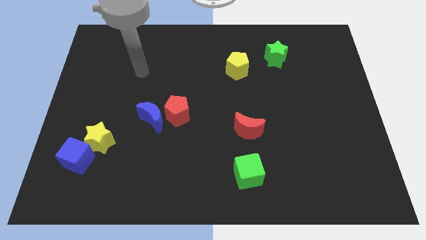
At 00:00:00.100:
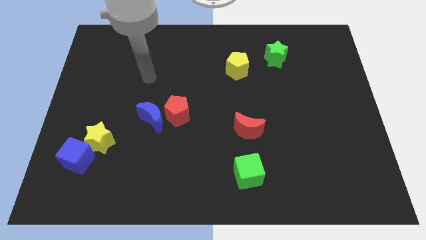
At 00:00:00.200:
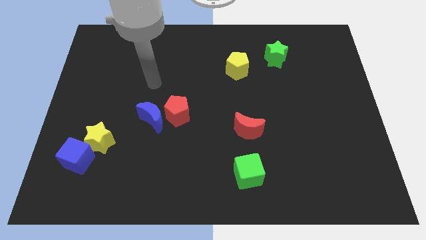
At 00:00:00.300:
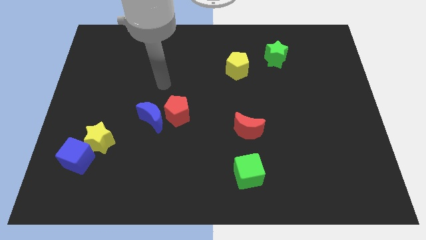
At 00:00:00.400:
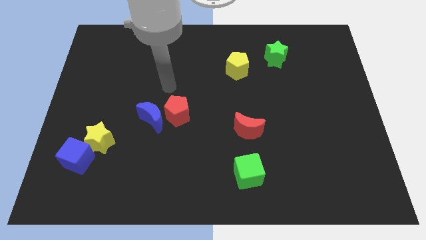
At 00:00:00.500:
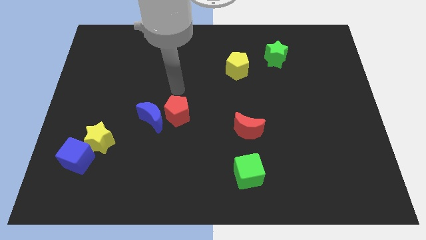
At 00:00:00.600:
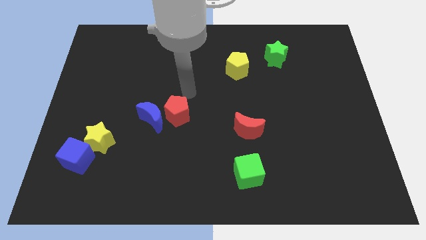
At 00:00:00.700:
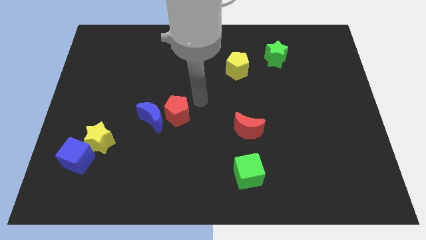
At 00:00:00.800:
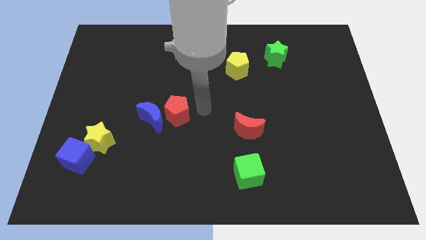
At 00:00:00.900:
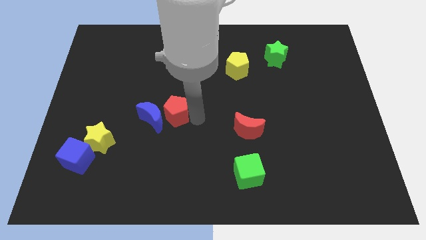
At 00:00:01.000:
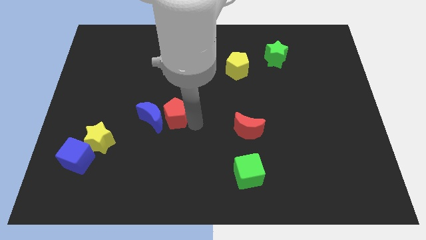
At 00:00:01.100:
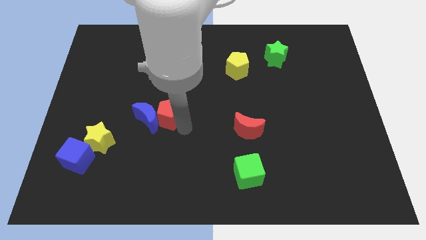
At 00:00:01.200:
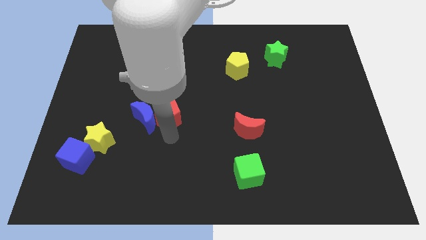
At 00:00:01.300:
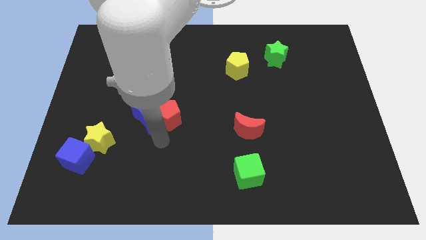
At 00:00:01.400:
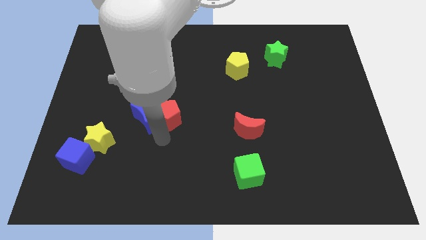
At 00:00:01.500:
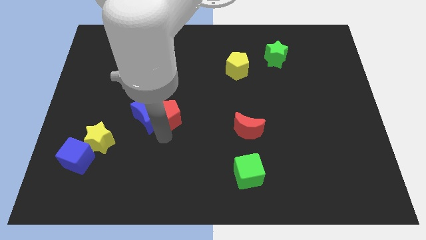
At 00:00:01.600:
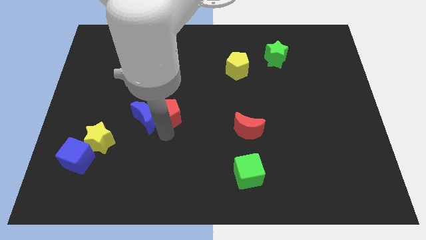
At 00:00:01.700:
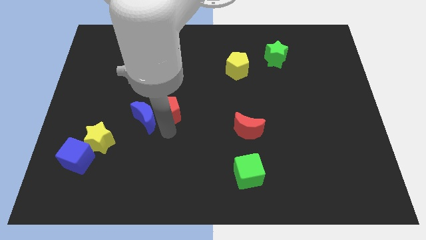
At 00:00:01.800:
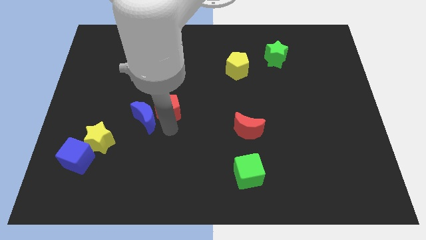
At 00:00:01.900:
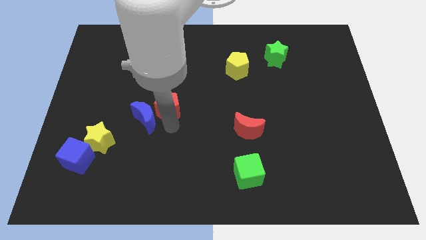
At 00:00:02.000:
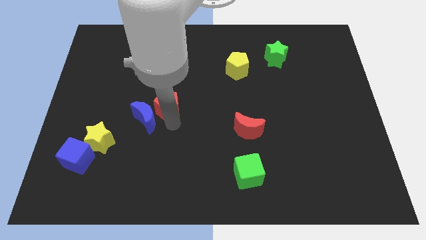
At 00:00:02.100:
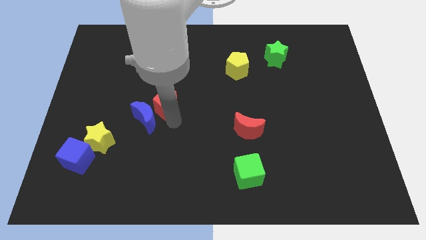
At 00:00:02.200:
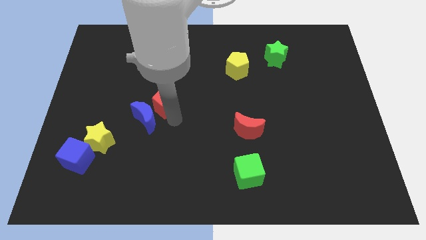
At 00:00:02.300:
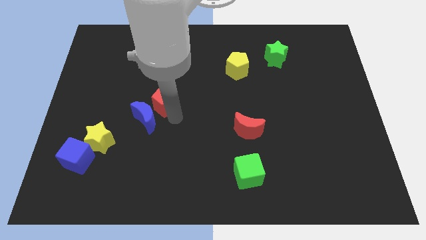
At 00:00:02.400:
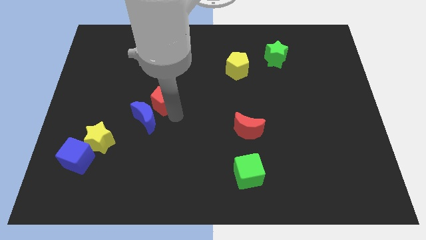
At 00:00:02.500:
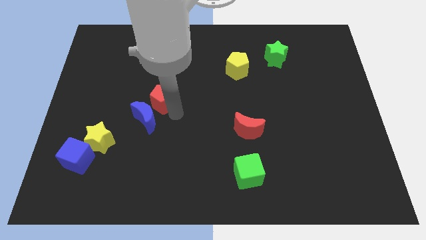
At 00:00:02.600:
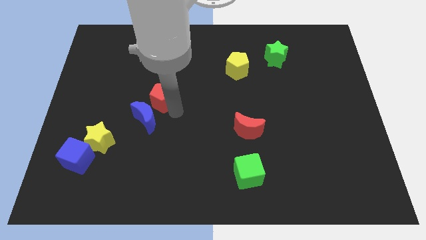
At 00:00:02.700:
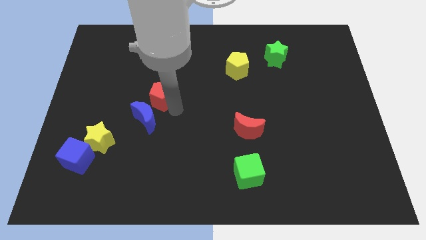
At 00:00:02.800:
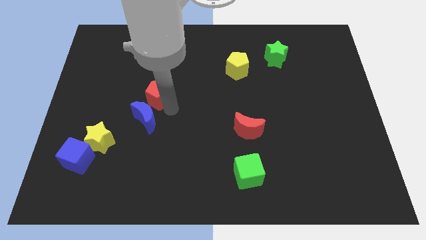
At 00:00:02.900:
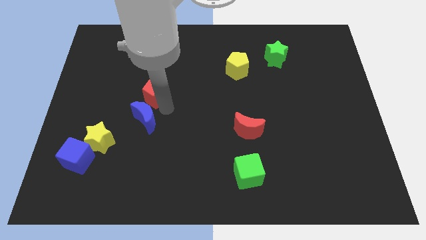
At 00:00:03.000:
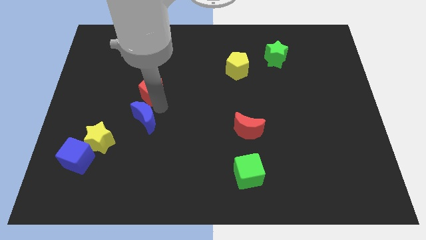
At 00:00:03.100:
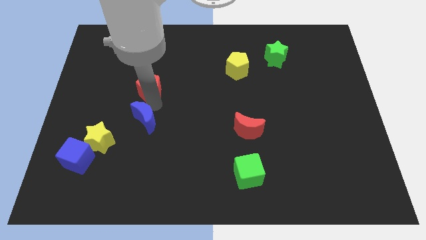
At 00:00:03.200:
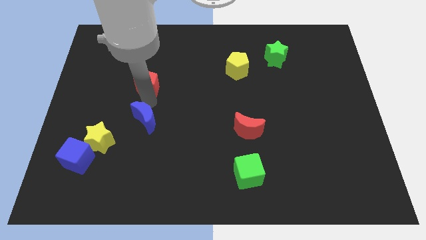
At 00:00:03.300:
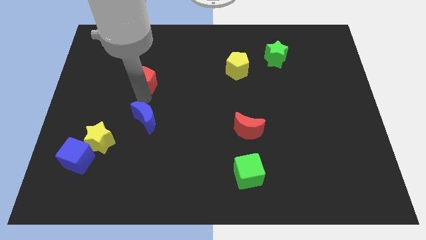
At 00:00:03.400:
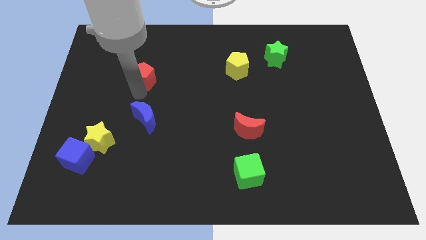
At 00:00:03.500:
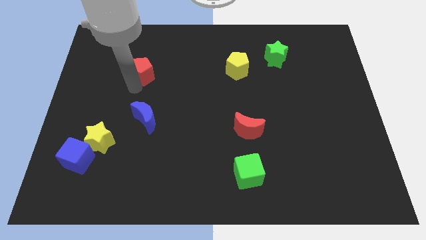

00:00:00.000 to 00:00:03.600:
move the red pentagon a little upwards

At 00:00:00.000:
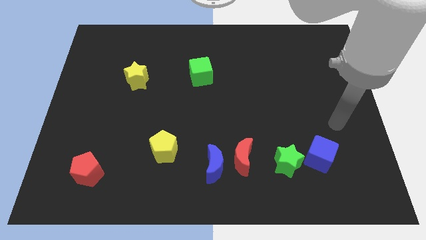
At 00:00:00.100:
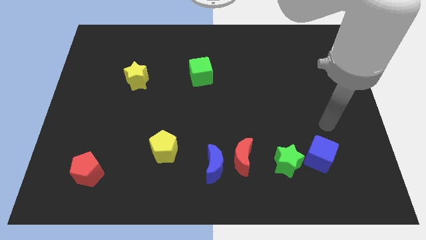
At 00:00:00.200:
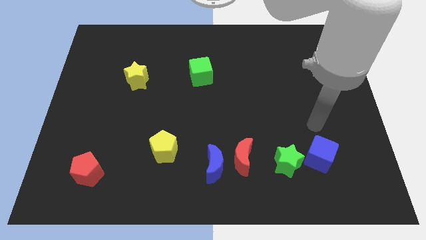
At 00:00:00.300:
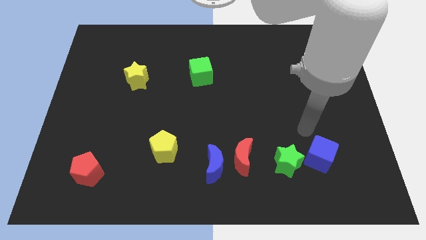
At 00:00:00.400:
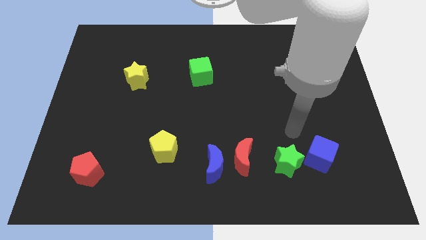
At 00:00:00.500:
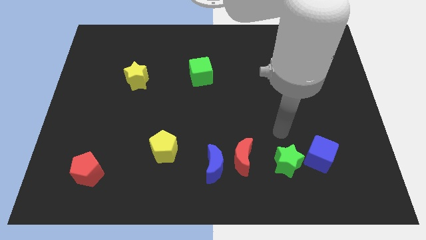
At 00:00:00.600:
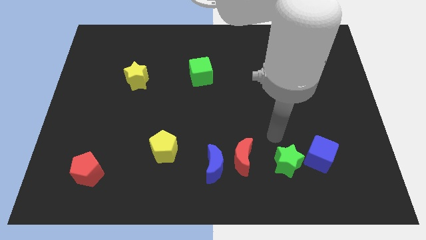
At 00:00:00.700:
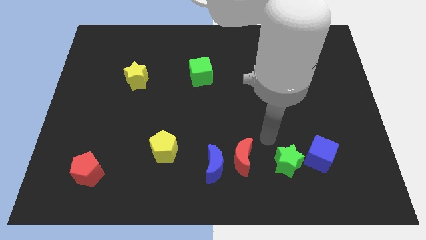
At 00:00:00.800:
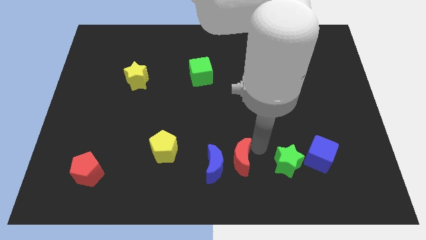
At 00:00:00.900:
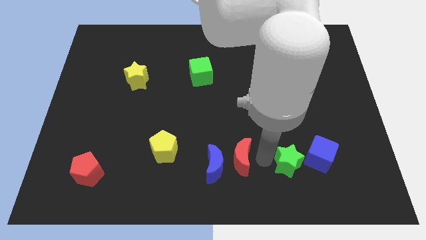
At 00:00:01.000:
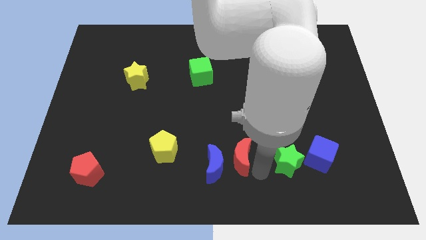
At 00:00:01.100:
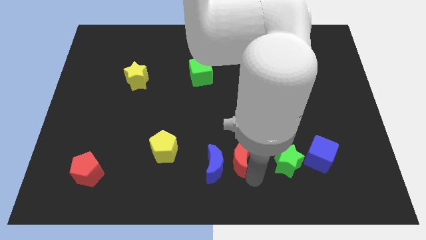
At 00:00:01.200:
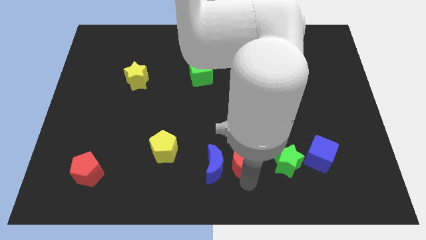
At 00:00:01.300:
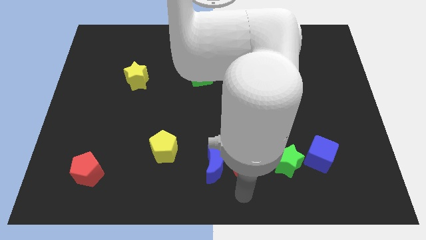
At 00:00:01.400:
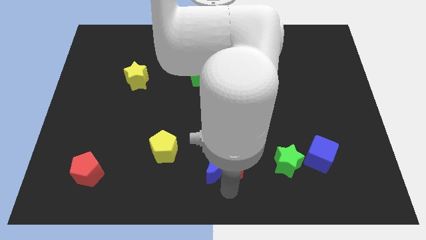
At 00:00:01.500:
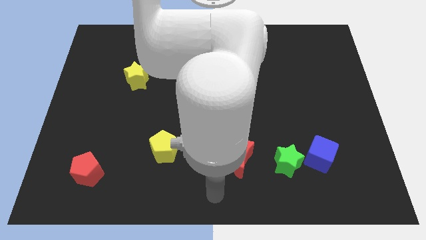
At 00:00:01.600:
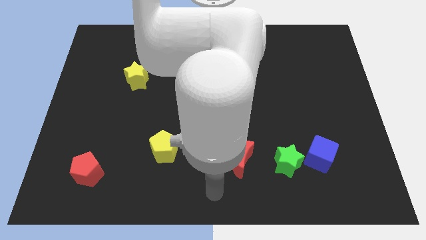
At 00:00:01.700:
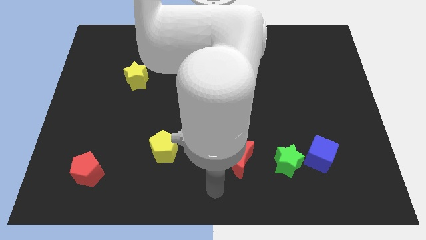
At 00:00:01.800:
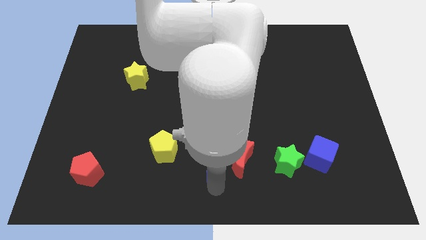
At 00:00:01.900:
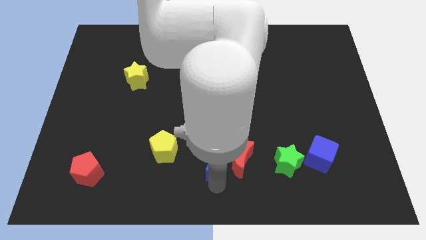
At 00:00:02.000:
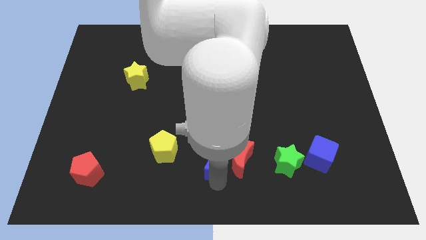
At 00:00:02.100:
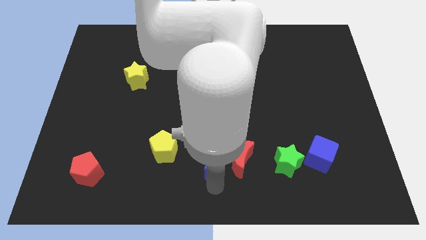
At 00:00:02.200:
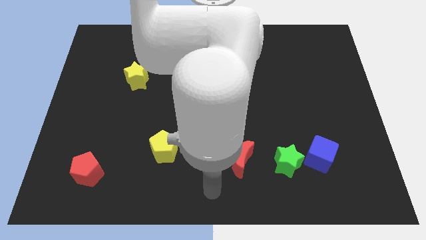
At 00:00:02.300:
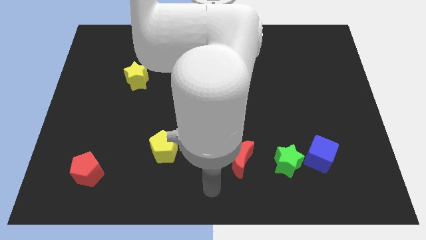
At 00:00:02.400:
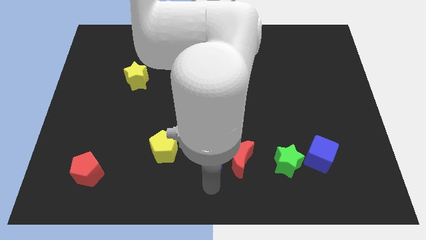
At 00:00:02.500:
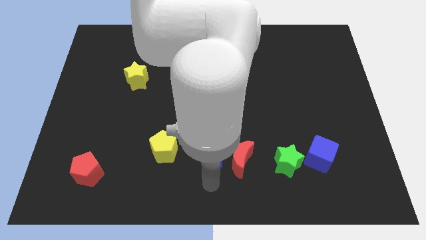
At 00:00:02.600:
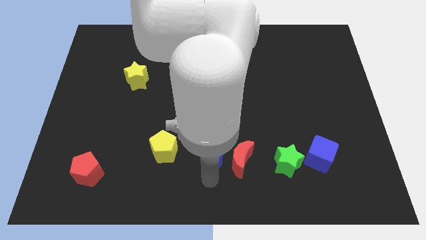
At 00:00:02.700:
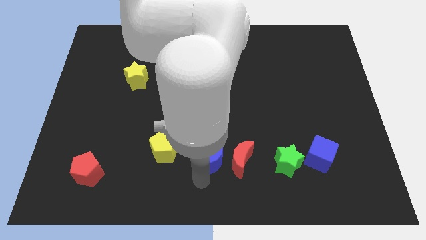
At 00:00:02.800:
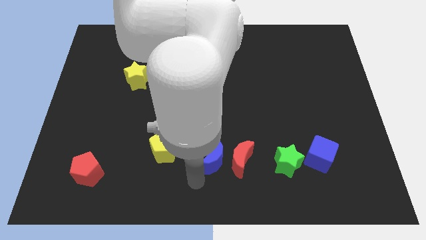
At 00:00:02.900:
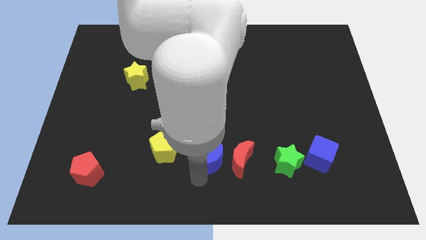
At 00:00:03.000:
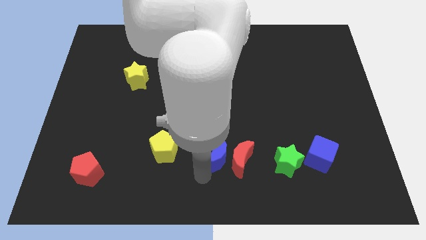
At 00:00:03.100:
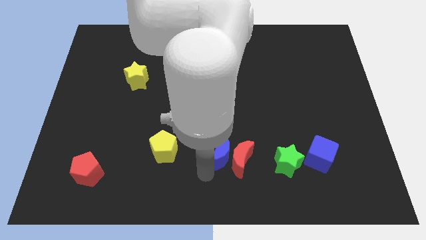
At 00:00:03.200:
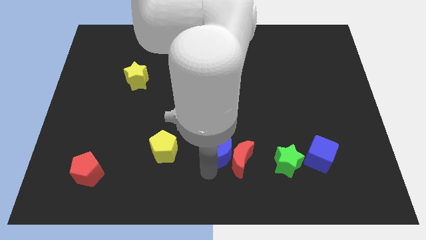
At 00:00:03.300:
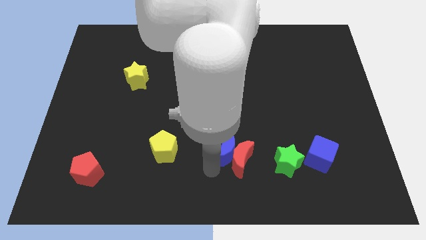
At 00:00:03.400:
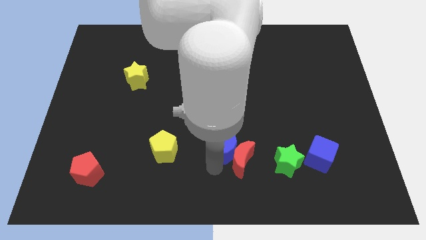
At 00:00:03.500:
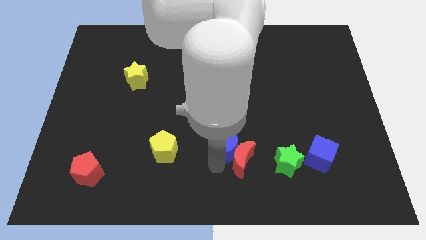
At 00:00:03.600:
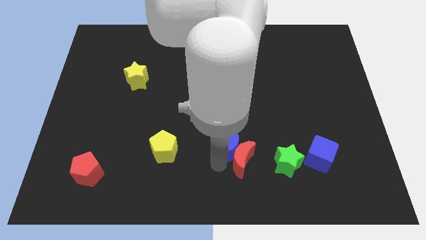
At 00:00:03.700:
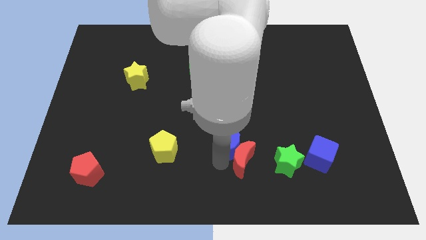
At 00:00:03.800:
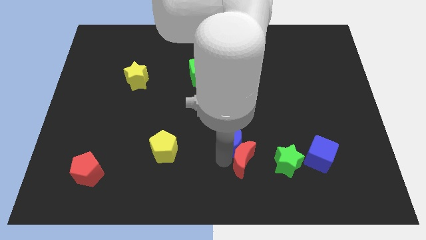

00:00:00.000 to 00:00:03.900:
slide the blue moon a little up and then right

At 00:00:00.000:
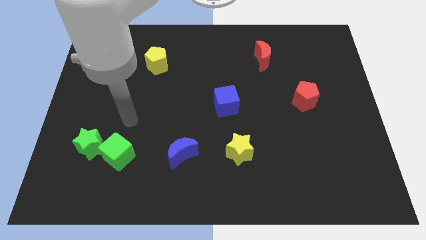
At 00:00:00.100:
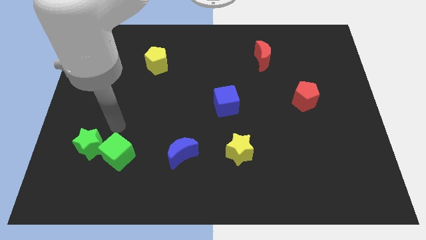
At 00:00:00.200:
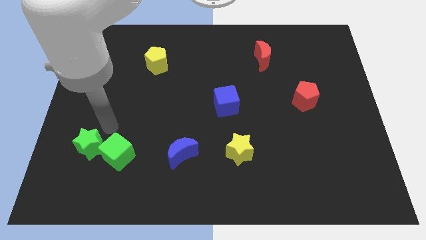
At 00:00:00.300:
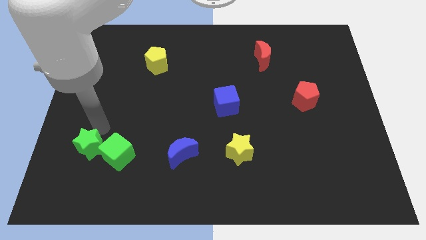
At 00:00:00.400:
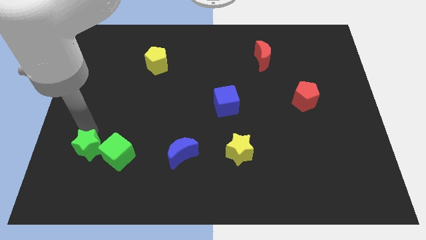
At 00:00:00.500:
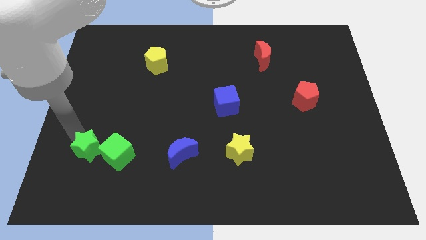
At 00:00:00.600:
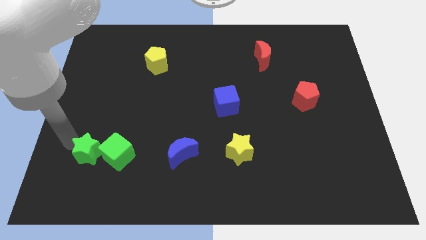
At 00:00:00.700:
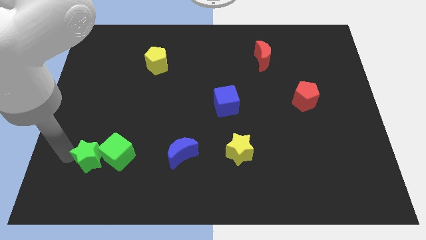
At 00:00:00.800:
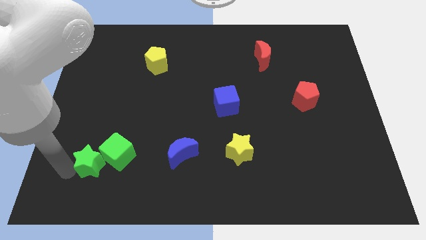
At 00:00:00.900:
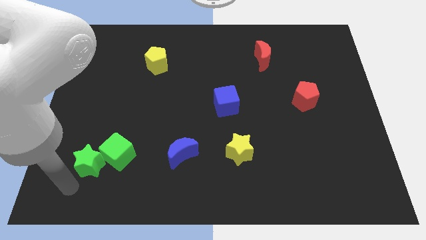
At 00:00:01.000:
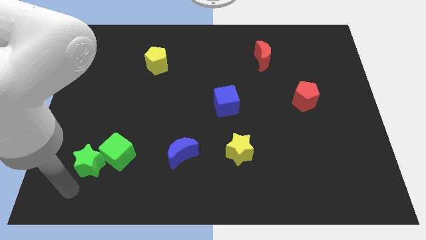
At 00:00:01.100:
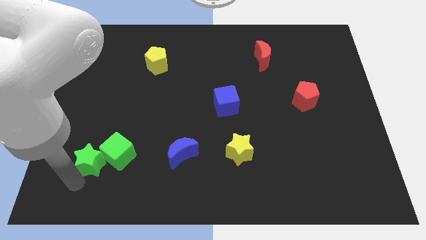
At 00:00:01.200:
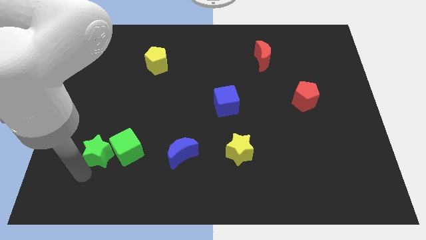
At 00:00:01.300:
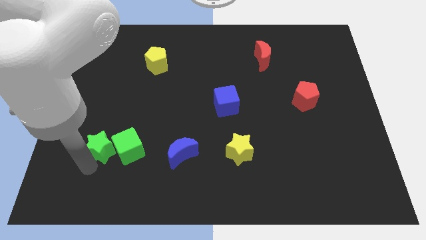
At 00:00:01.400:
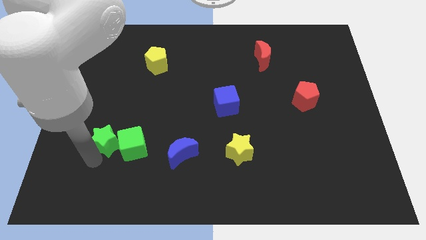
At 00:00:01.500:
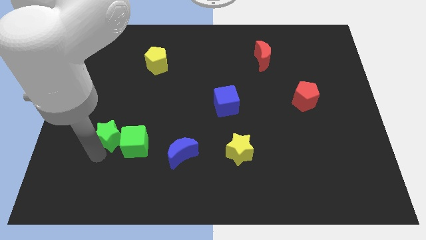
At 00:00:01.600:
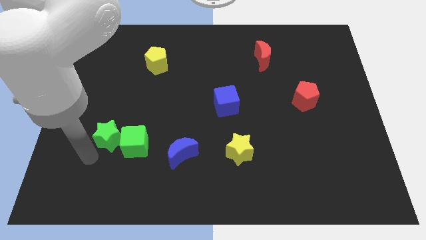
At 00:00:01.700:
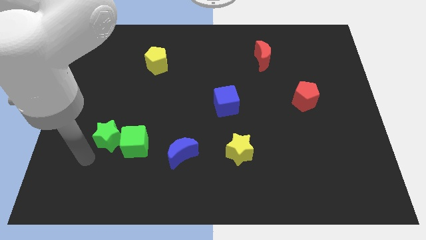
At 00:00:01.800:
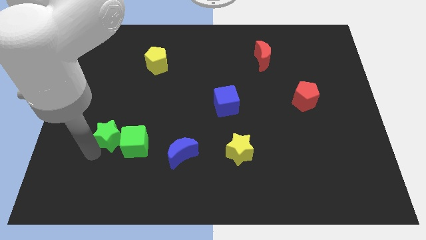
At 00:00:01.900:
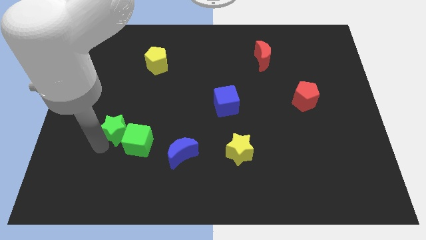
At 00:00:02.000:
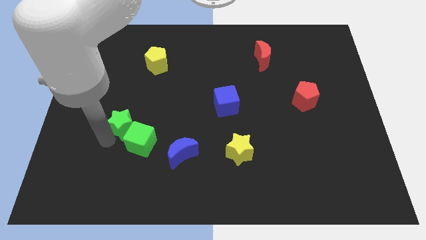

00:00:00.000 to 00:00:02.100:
slide the green star upwards and right a little bit
